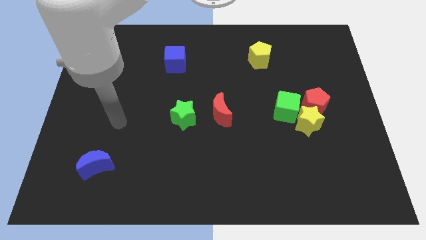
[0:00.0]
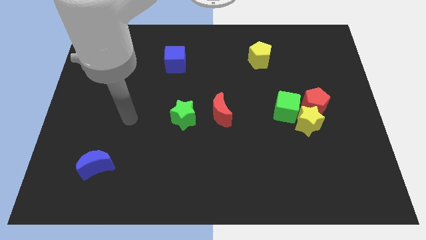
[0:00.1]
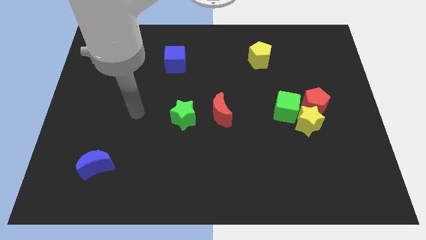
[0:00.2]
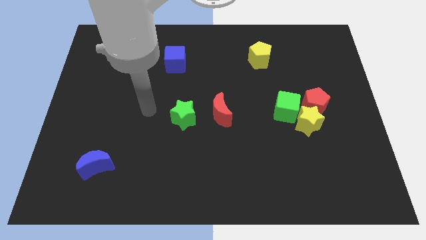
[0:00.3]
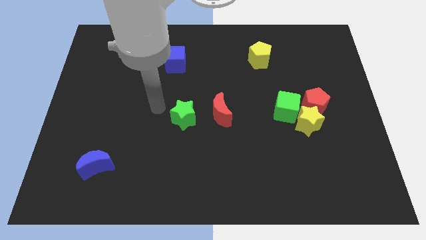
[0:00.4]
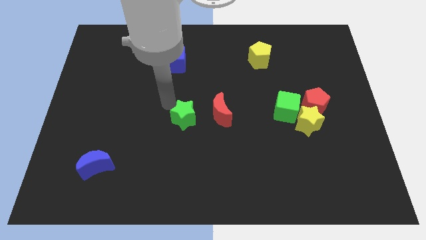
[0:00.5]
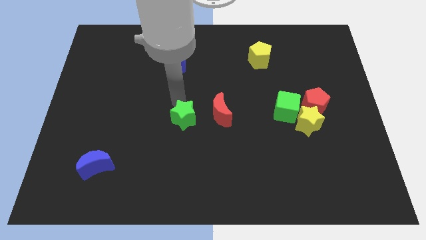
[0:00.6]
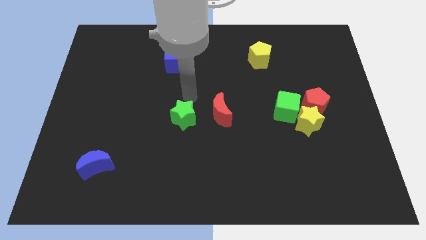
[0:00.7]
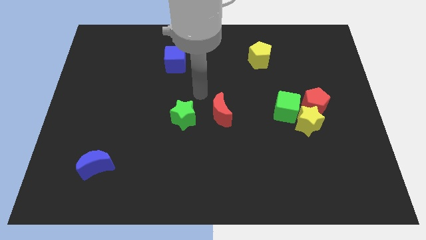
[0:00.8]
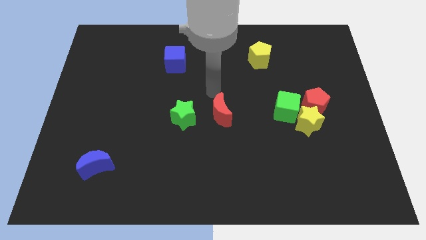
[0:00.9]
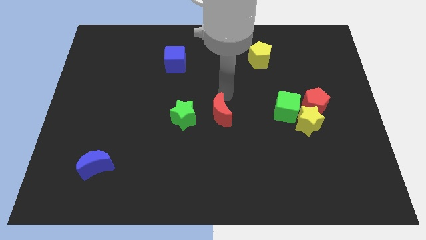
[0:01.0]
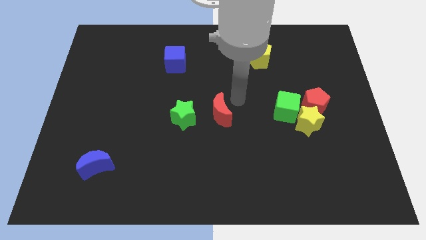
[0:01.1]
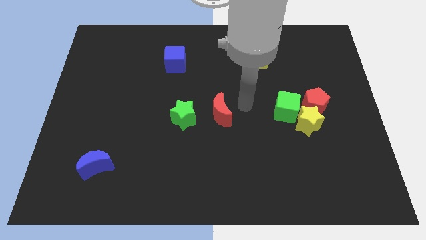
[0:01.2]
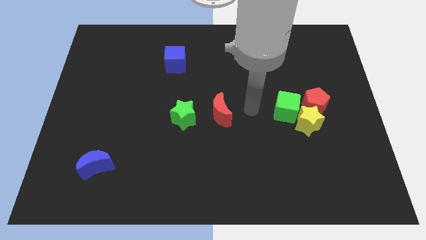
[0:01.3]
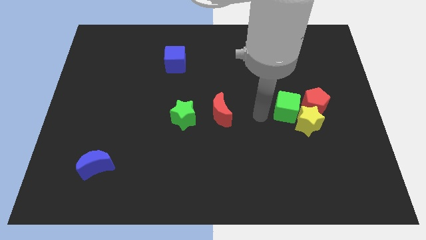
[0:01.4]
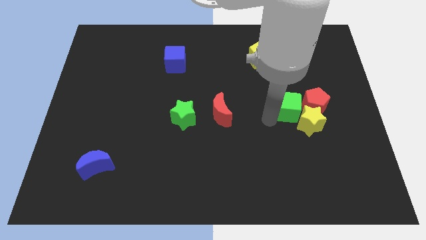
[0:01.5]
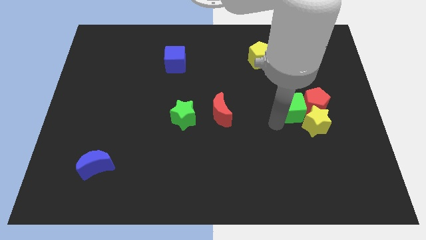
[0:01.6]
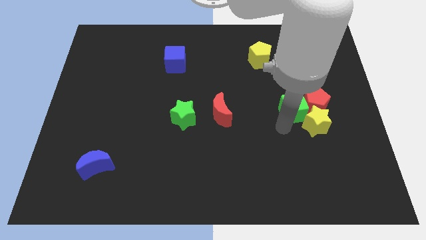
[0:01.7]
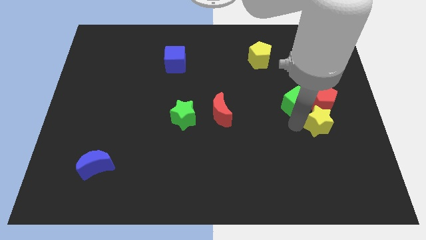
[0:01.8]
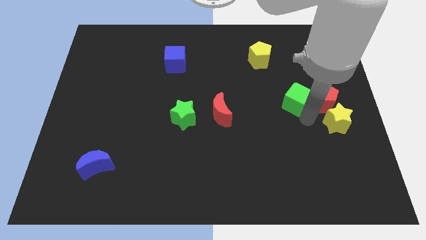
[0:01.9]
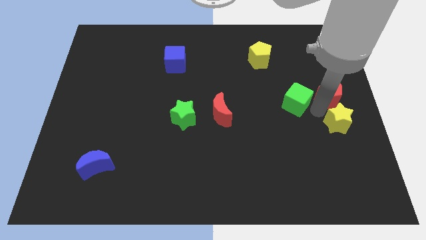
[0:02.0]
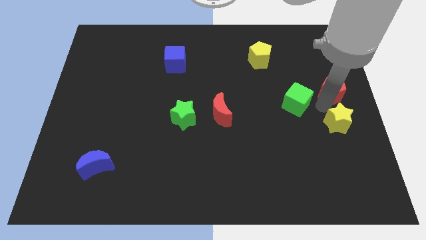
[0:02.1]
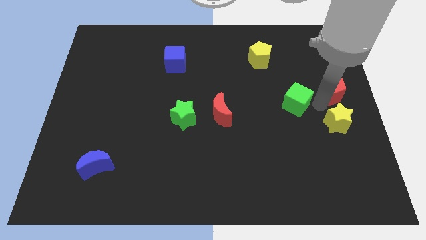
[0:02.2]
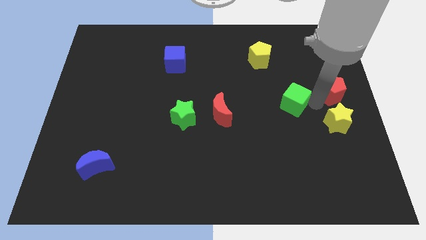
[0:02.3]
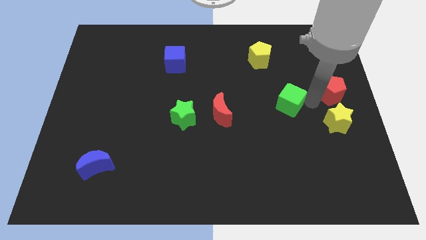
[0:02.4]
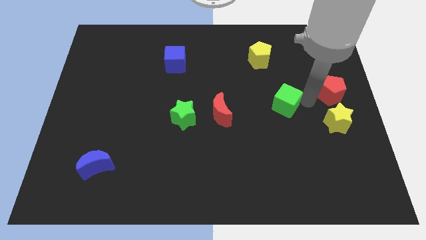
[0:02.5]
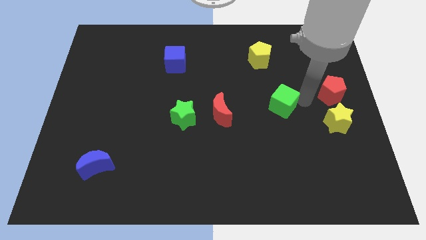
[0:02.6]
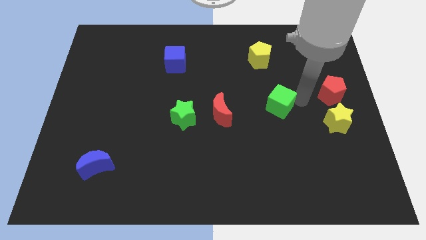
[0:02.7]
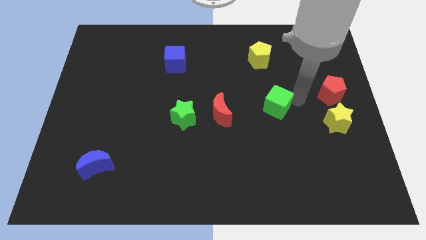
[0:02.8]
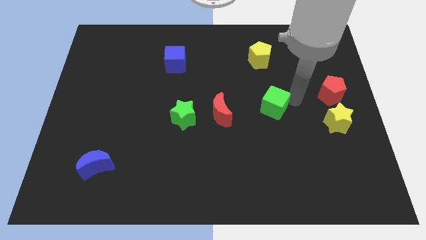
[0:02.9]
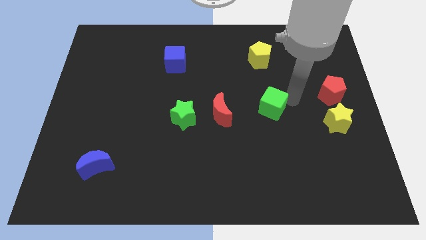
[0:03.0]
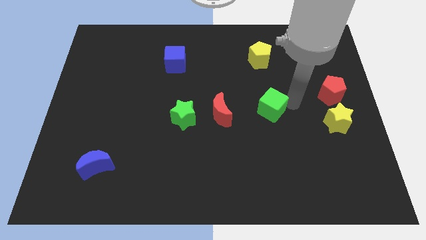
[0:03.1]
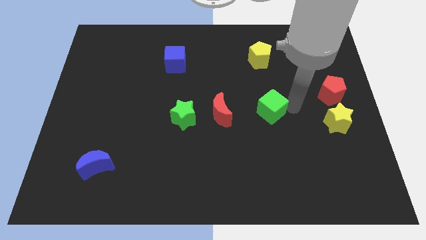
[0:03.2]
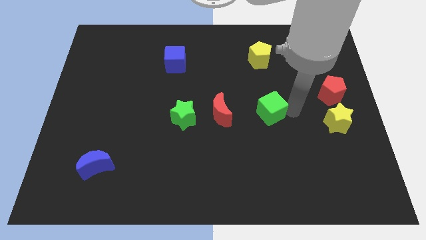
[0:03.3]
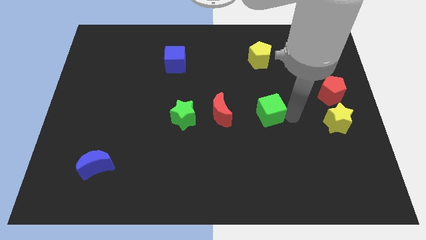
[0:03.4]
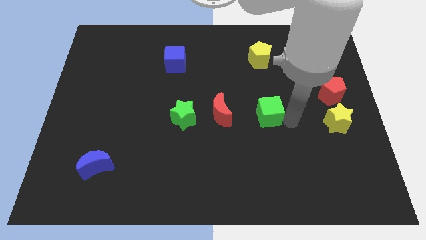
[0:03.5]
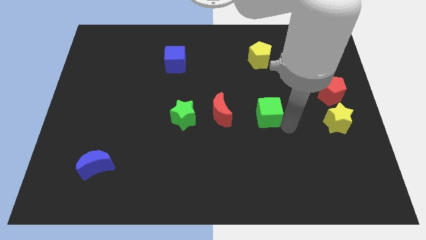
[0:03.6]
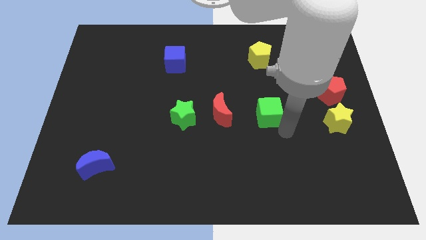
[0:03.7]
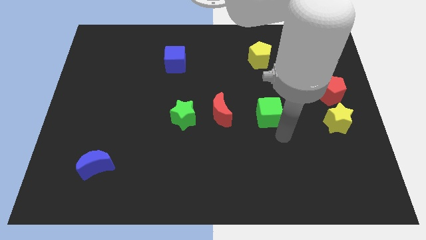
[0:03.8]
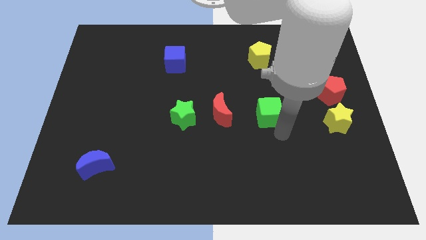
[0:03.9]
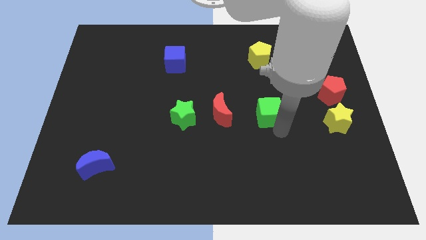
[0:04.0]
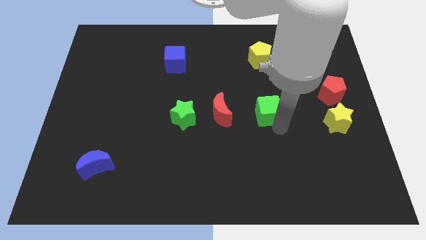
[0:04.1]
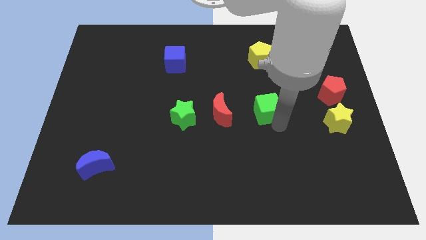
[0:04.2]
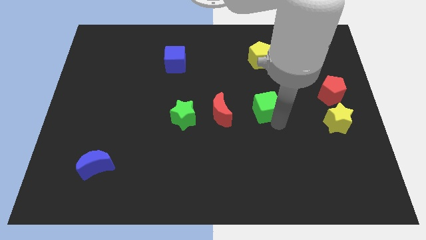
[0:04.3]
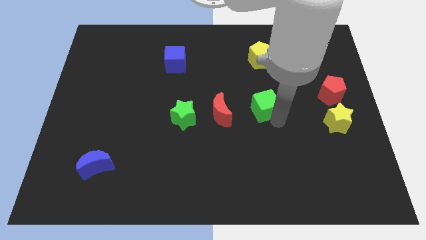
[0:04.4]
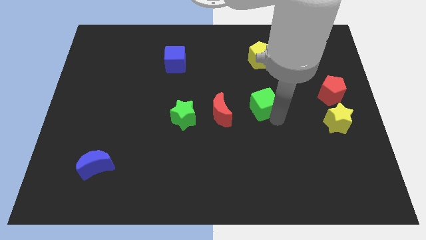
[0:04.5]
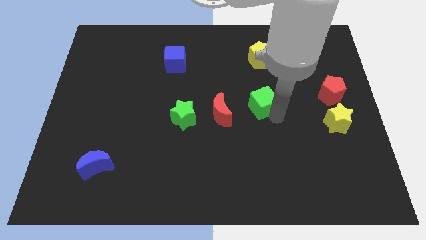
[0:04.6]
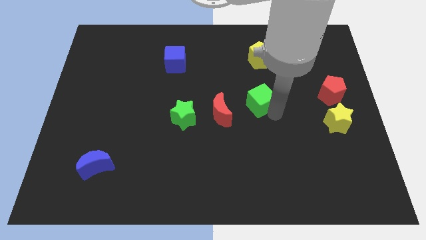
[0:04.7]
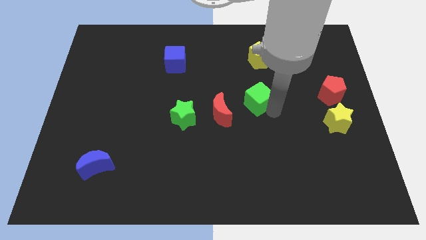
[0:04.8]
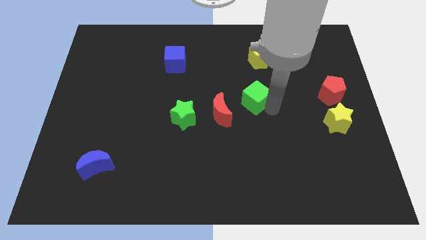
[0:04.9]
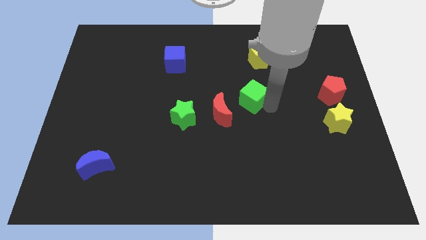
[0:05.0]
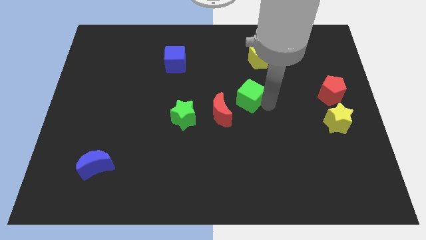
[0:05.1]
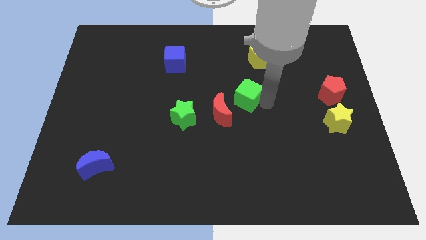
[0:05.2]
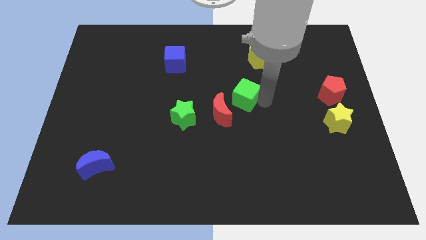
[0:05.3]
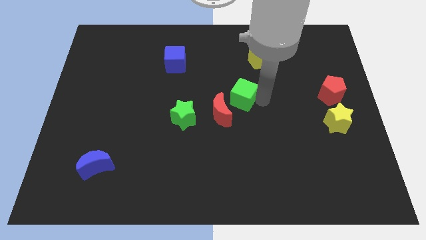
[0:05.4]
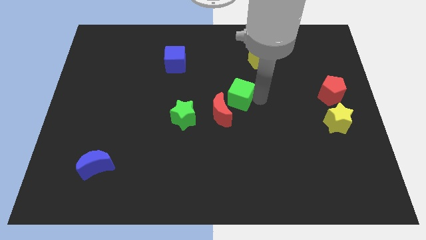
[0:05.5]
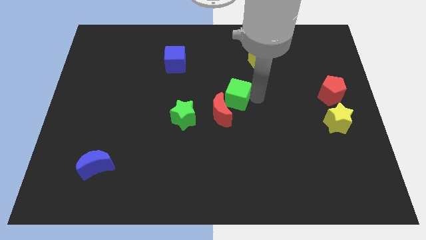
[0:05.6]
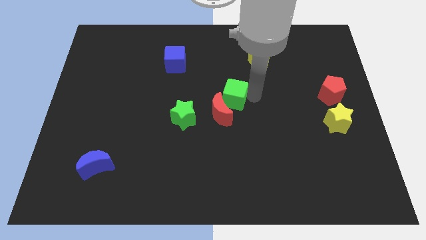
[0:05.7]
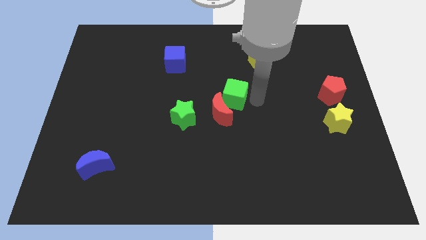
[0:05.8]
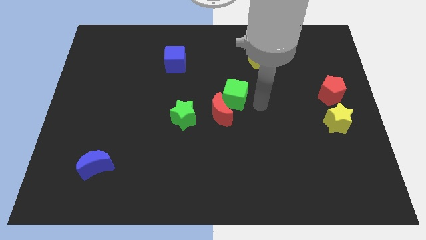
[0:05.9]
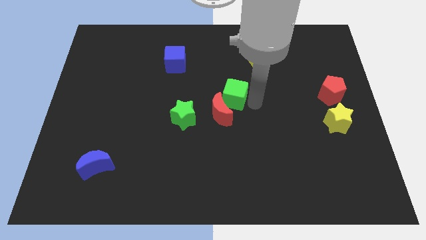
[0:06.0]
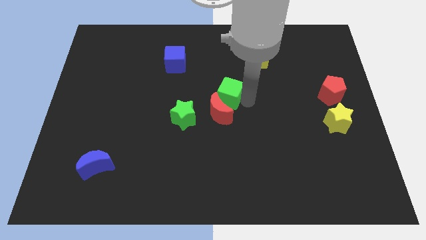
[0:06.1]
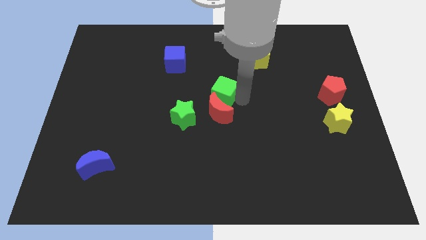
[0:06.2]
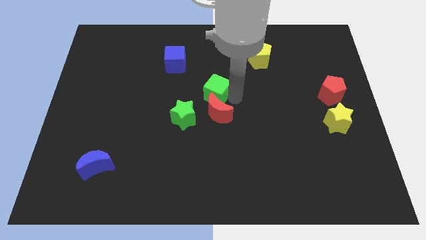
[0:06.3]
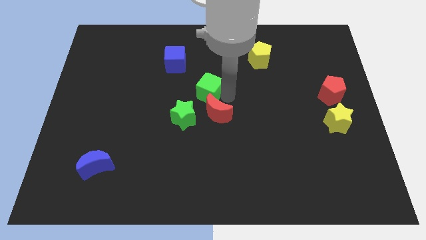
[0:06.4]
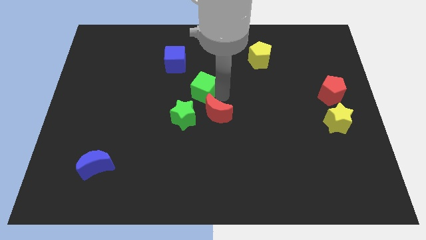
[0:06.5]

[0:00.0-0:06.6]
put the green cube to the top of the green star
